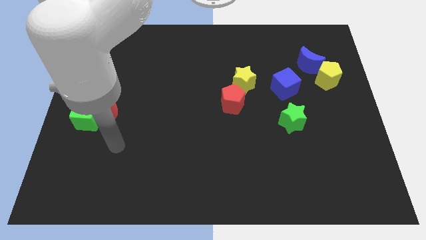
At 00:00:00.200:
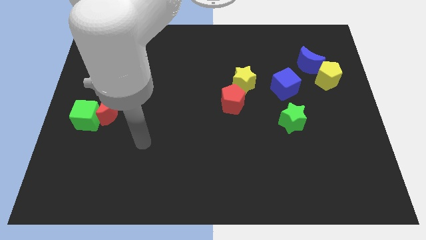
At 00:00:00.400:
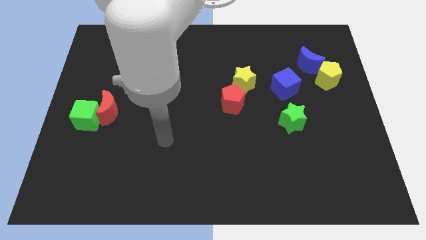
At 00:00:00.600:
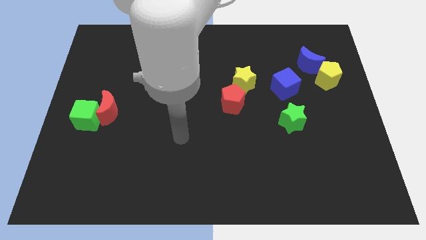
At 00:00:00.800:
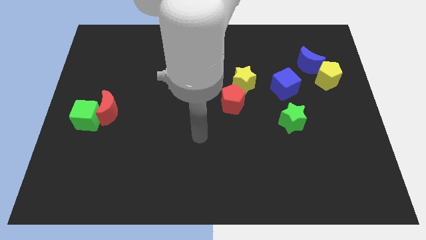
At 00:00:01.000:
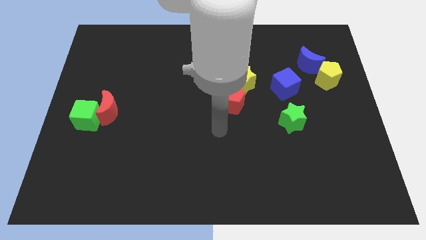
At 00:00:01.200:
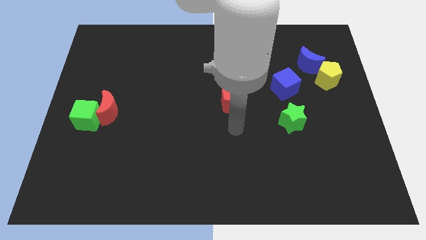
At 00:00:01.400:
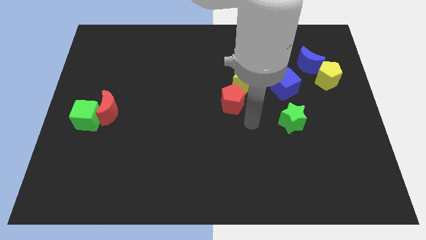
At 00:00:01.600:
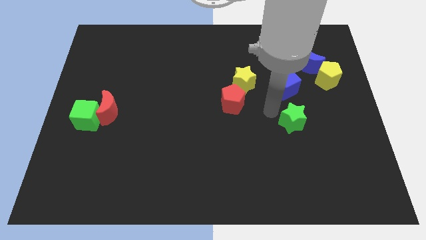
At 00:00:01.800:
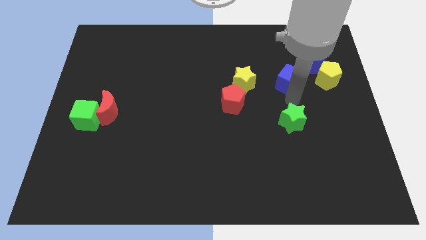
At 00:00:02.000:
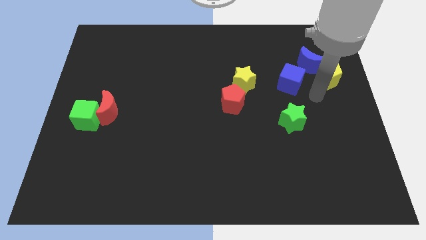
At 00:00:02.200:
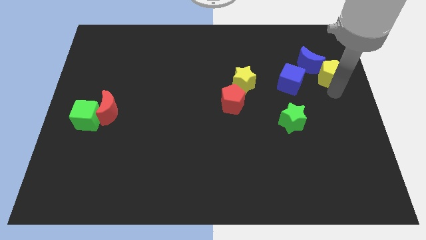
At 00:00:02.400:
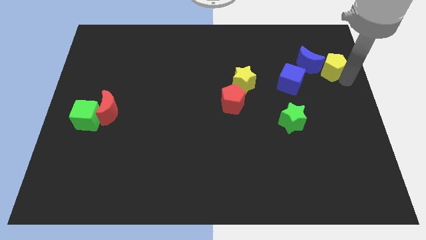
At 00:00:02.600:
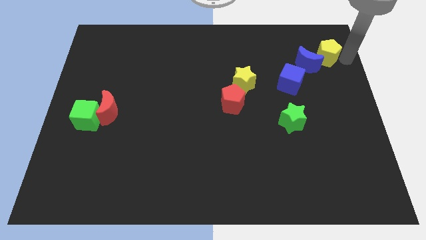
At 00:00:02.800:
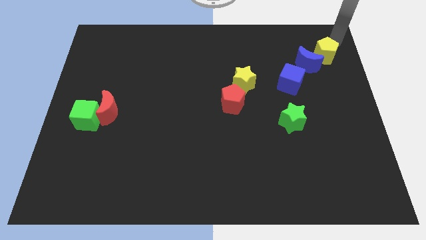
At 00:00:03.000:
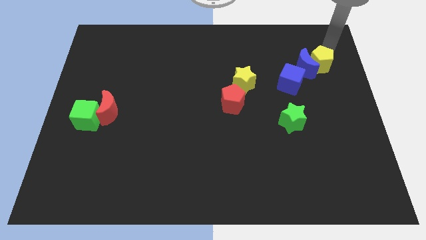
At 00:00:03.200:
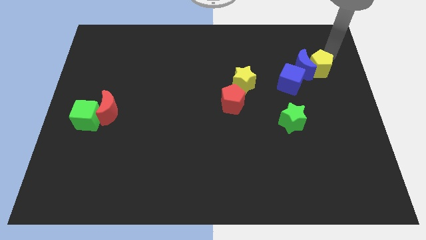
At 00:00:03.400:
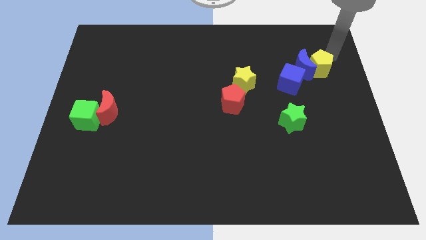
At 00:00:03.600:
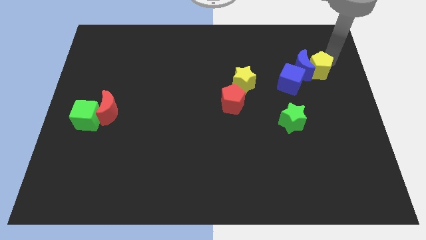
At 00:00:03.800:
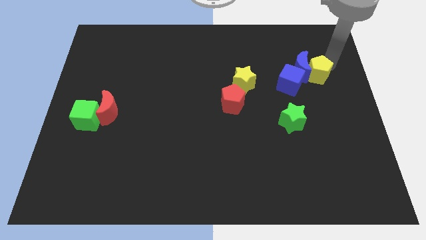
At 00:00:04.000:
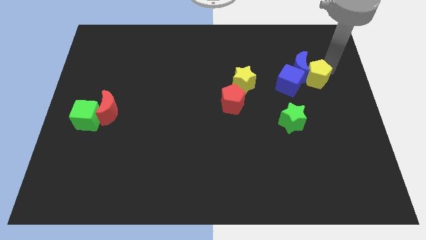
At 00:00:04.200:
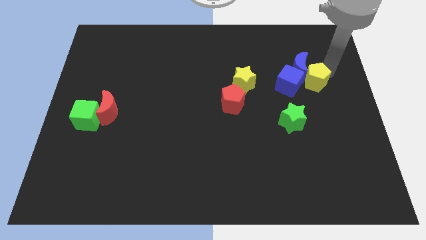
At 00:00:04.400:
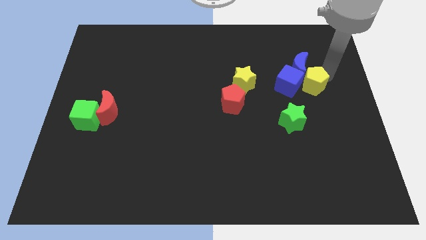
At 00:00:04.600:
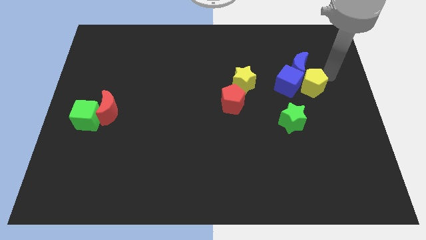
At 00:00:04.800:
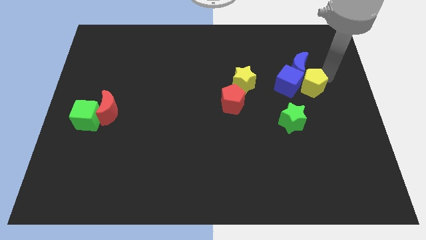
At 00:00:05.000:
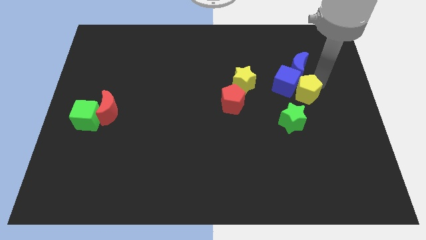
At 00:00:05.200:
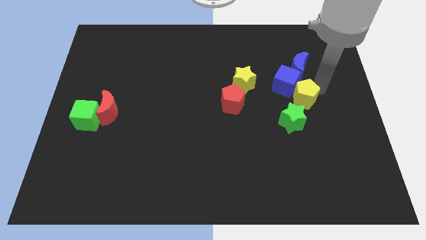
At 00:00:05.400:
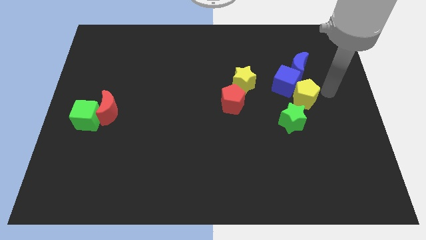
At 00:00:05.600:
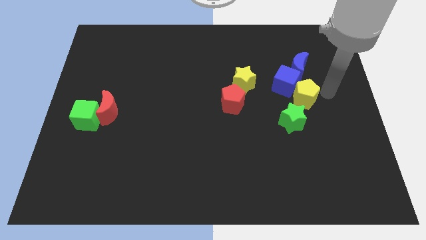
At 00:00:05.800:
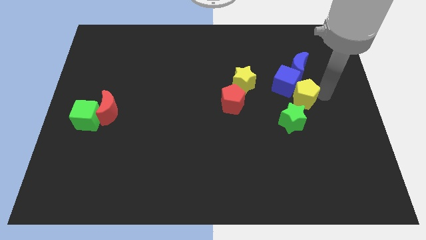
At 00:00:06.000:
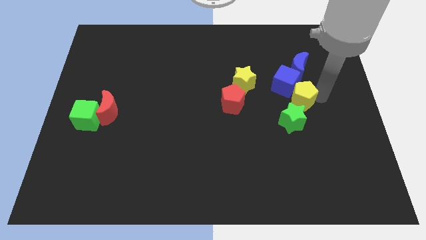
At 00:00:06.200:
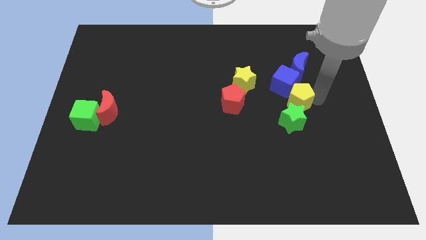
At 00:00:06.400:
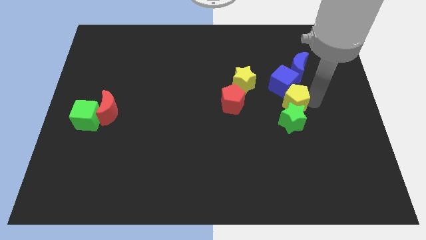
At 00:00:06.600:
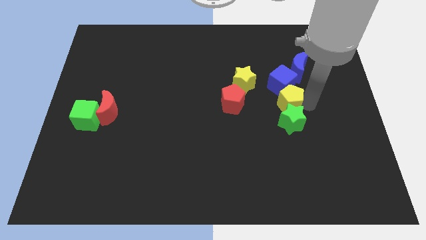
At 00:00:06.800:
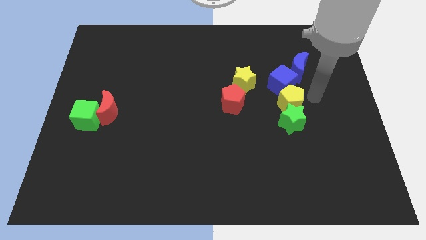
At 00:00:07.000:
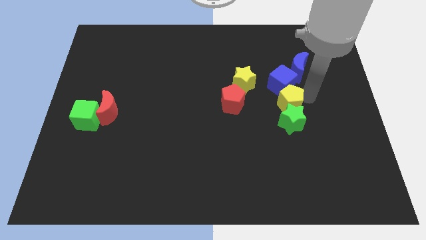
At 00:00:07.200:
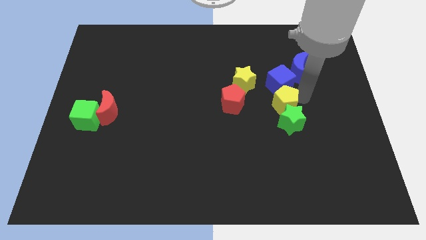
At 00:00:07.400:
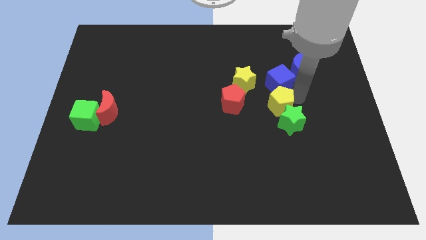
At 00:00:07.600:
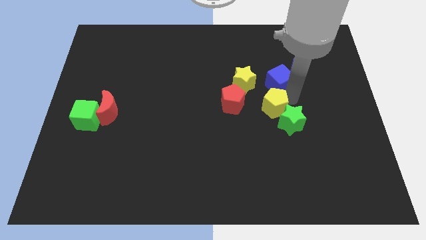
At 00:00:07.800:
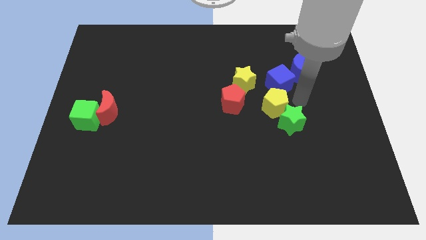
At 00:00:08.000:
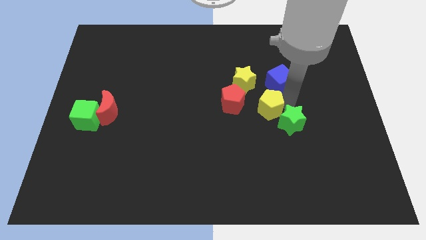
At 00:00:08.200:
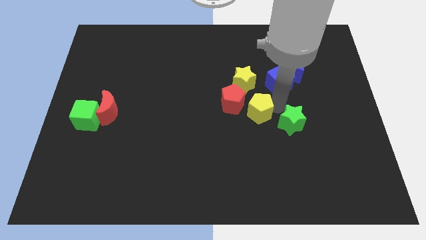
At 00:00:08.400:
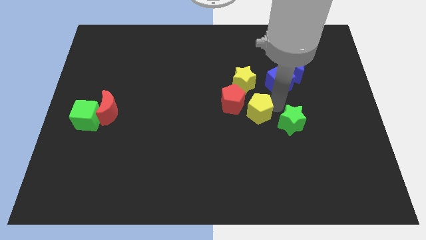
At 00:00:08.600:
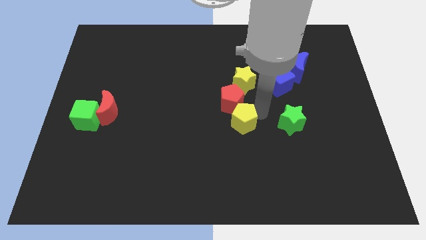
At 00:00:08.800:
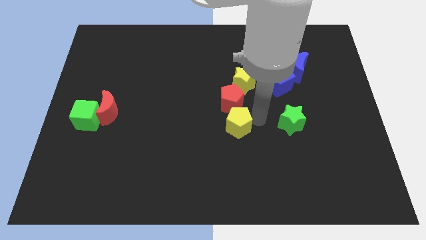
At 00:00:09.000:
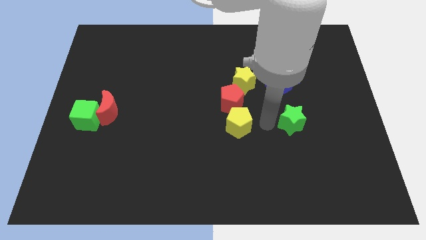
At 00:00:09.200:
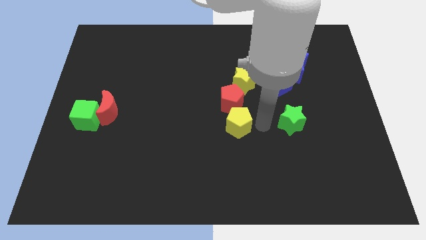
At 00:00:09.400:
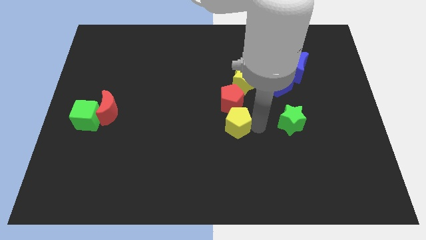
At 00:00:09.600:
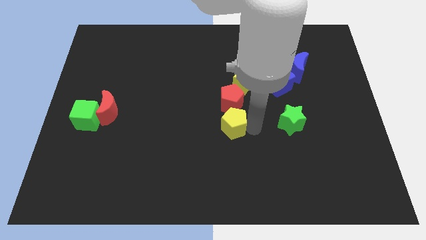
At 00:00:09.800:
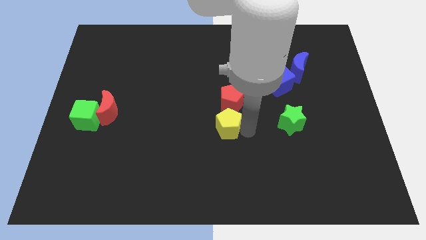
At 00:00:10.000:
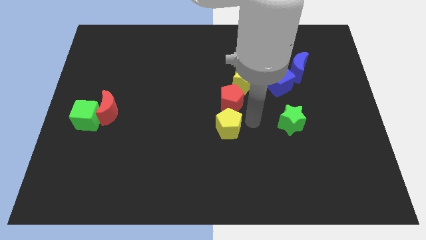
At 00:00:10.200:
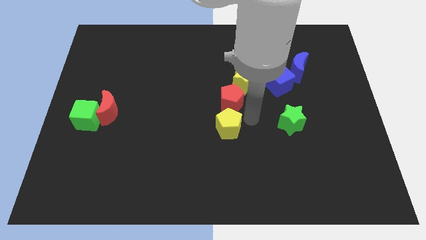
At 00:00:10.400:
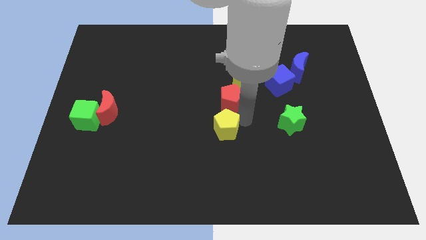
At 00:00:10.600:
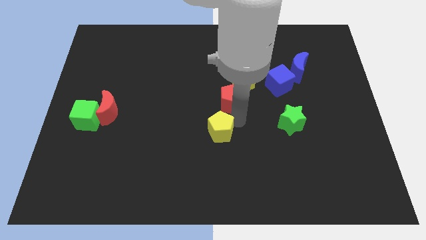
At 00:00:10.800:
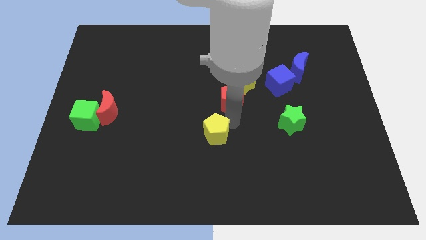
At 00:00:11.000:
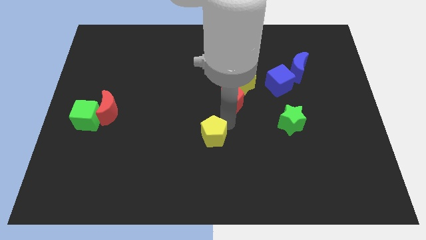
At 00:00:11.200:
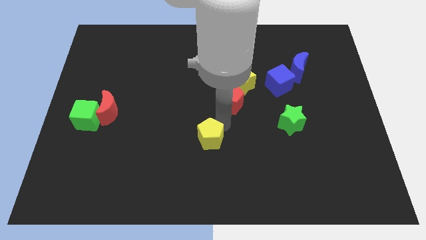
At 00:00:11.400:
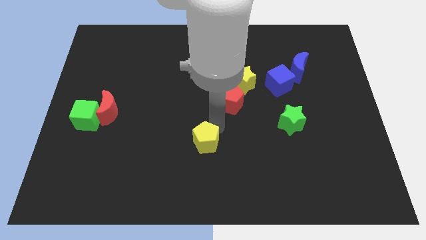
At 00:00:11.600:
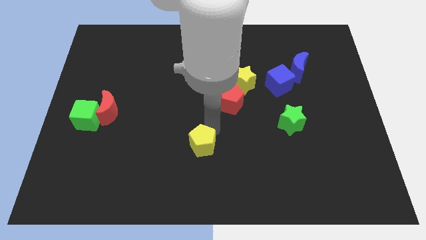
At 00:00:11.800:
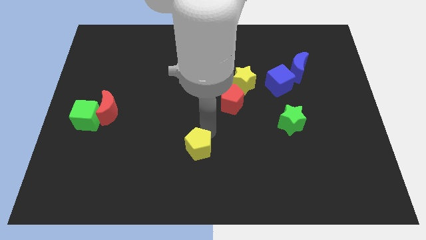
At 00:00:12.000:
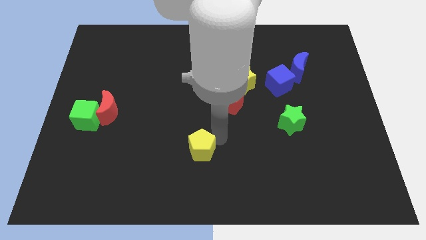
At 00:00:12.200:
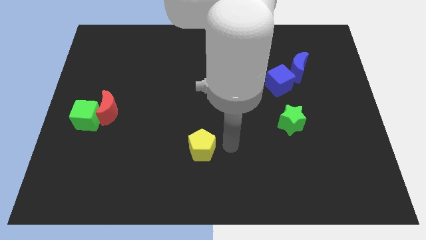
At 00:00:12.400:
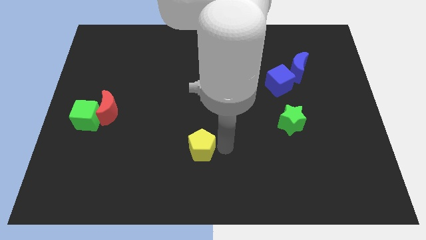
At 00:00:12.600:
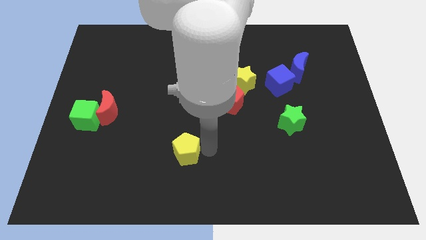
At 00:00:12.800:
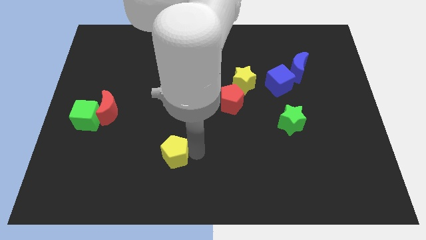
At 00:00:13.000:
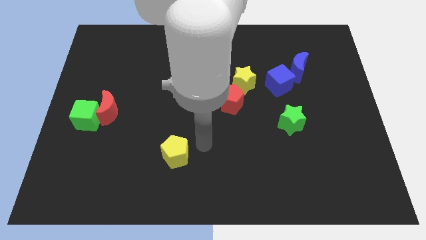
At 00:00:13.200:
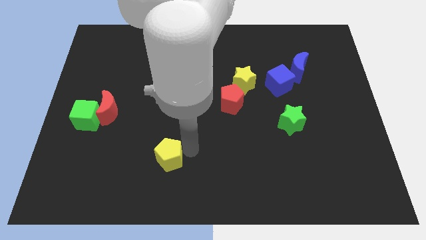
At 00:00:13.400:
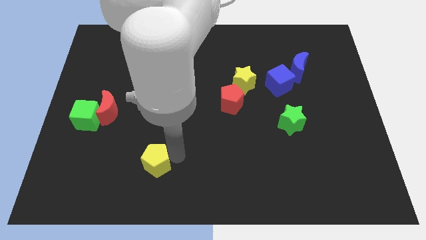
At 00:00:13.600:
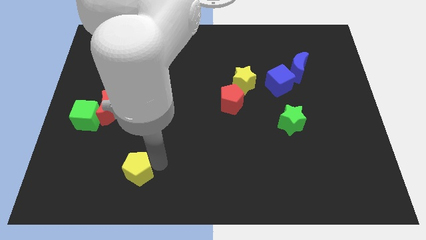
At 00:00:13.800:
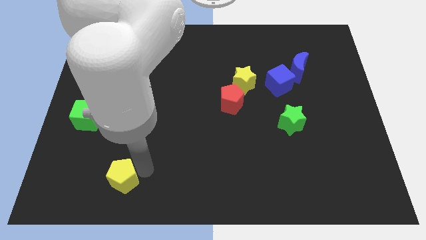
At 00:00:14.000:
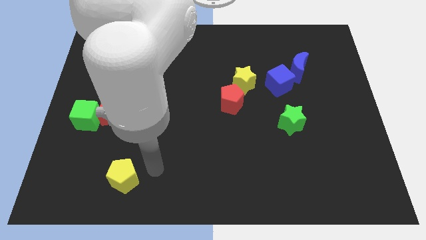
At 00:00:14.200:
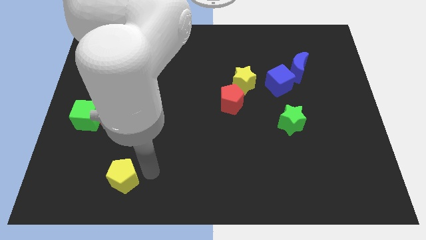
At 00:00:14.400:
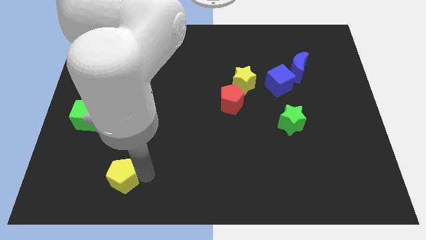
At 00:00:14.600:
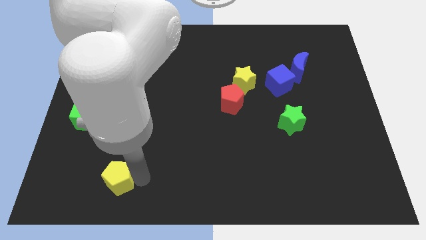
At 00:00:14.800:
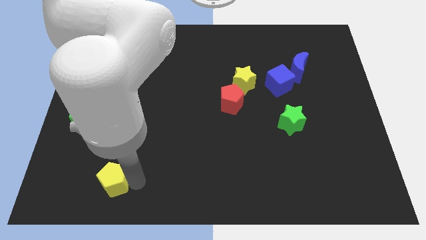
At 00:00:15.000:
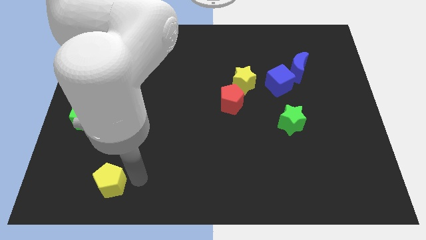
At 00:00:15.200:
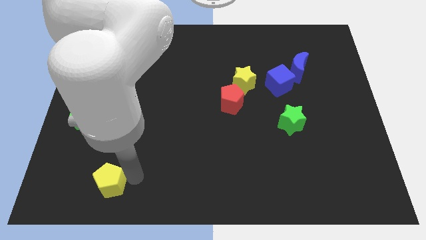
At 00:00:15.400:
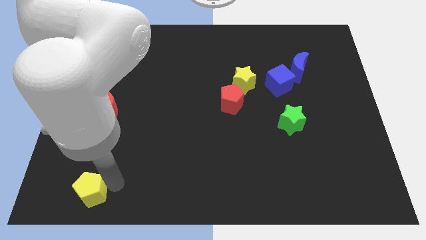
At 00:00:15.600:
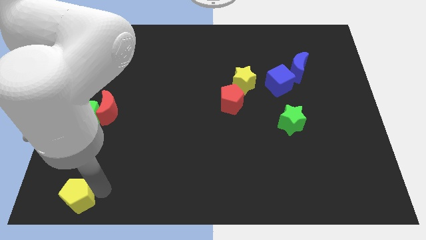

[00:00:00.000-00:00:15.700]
push the yellow pentagon to the lower left corner
